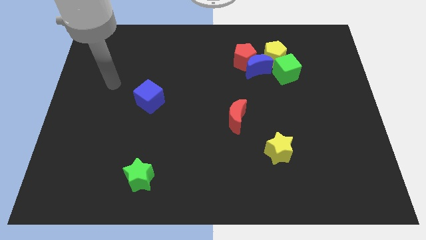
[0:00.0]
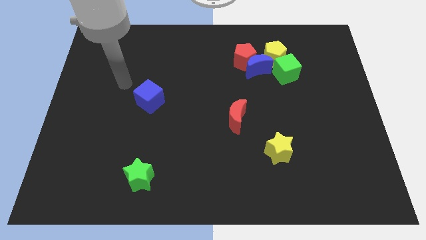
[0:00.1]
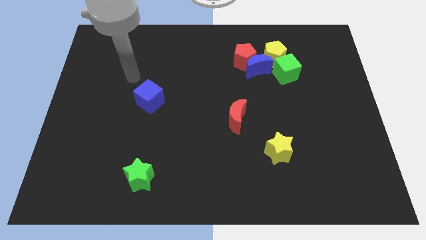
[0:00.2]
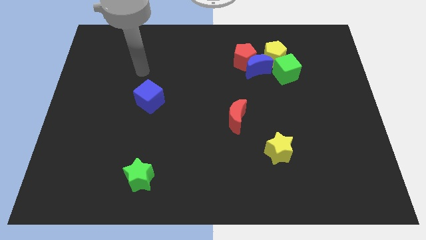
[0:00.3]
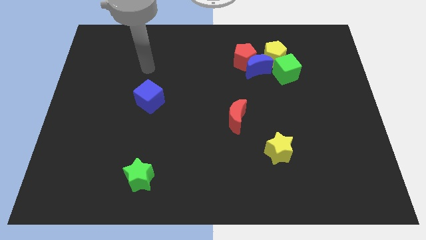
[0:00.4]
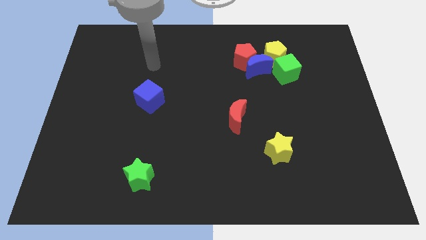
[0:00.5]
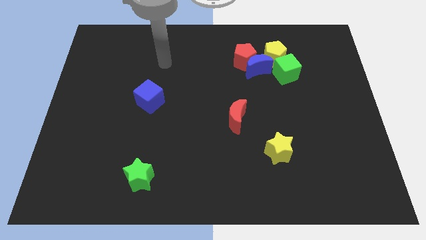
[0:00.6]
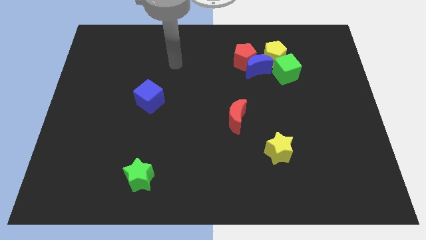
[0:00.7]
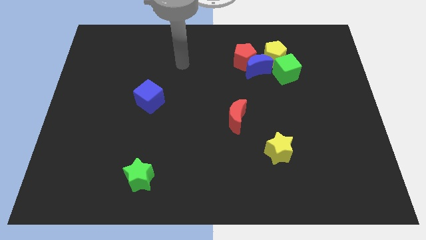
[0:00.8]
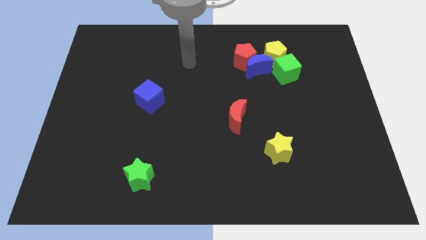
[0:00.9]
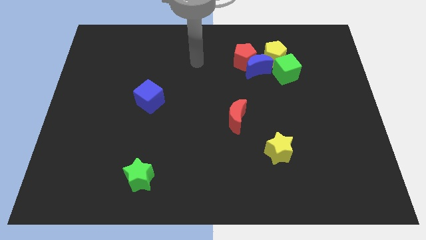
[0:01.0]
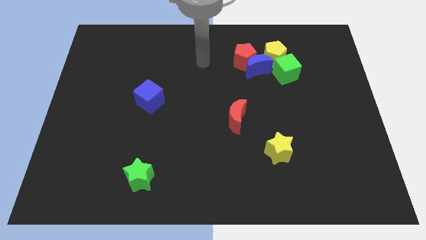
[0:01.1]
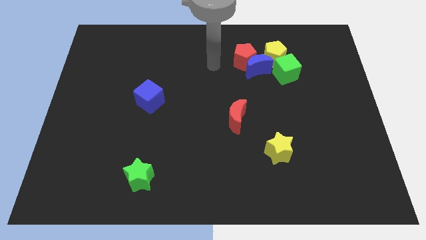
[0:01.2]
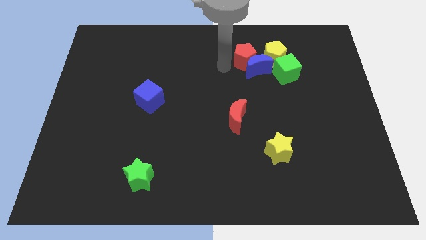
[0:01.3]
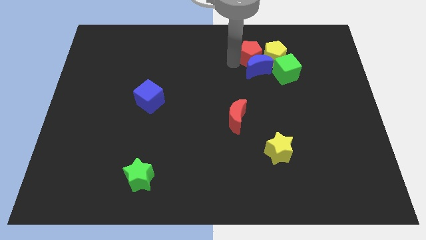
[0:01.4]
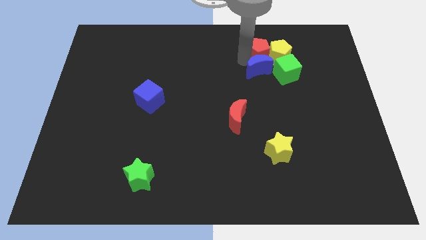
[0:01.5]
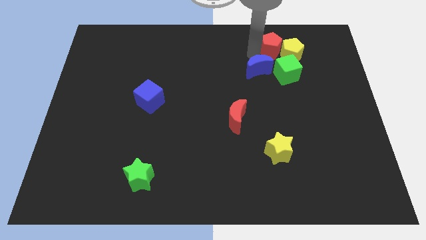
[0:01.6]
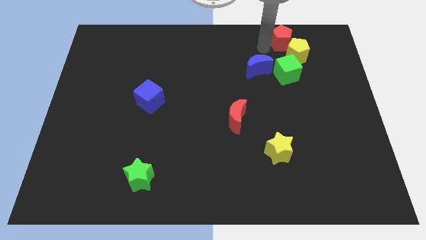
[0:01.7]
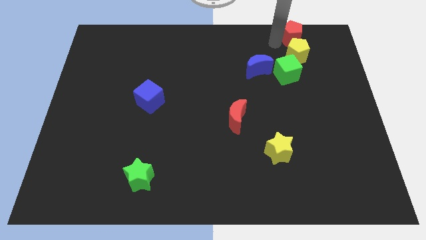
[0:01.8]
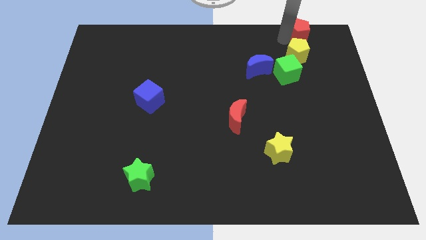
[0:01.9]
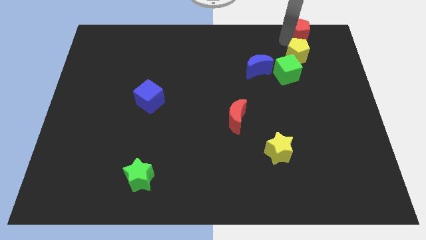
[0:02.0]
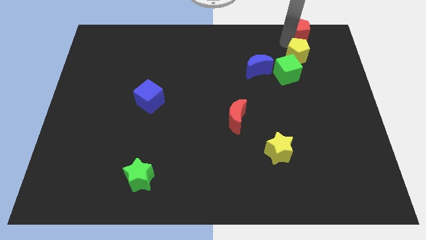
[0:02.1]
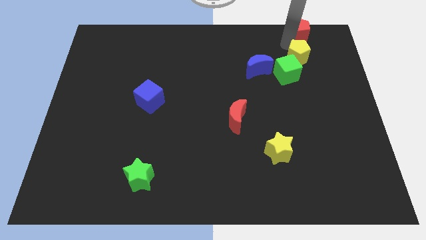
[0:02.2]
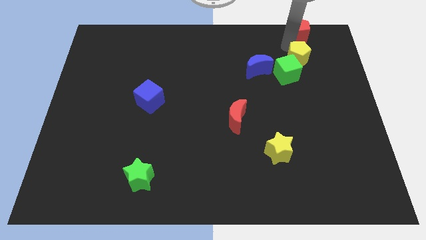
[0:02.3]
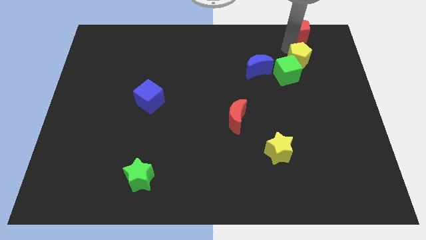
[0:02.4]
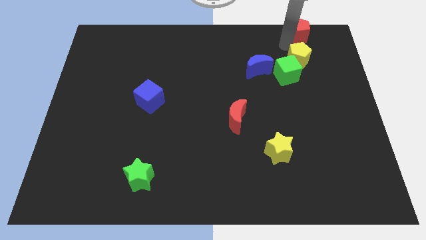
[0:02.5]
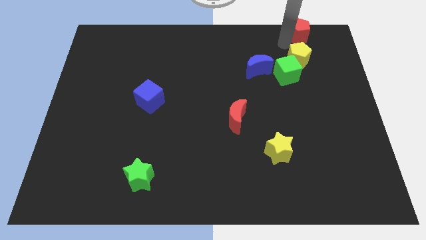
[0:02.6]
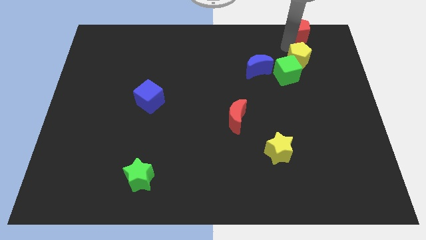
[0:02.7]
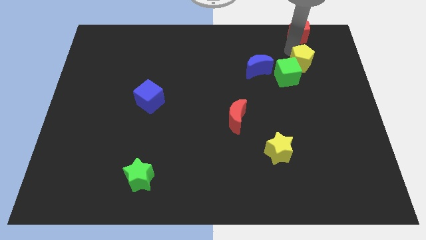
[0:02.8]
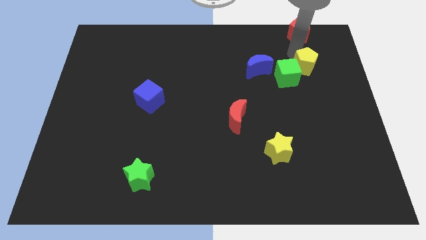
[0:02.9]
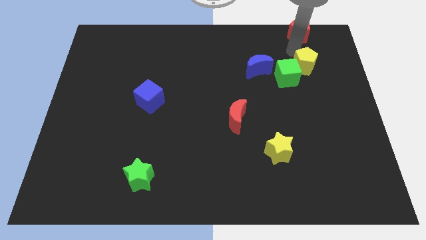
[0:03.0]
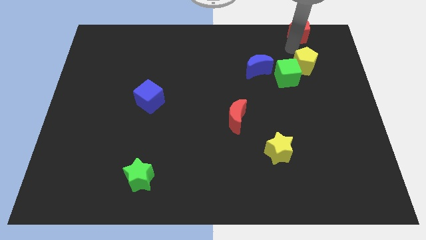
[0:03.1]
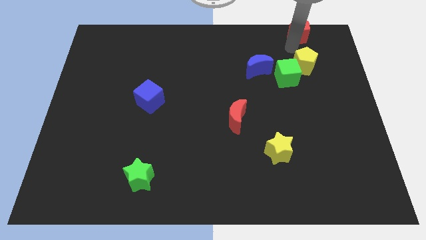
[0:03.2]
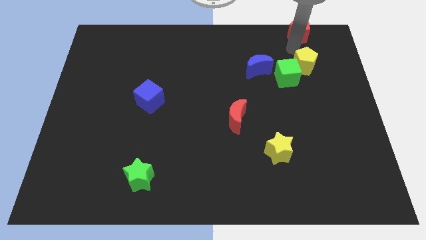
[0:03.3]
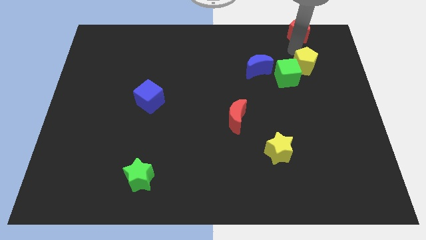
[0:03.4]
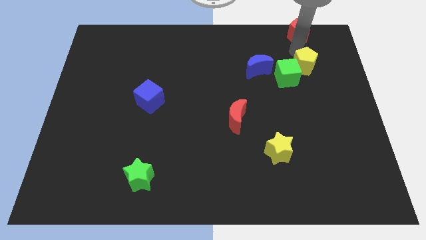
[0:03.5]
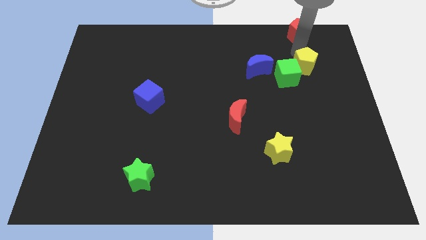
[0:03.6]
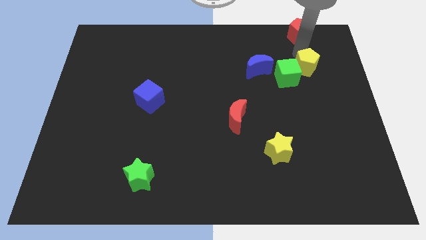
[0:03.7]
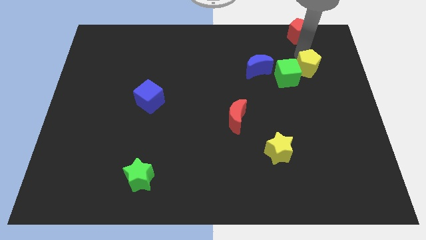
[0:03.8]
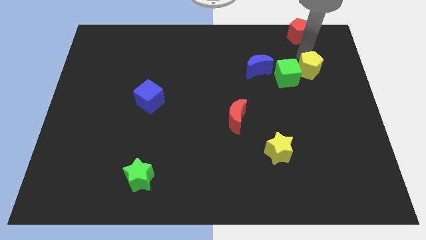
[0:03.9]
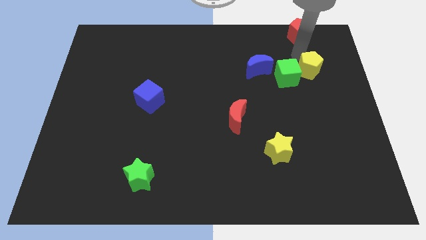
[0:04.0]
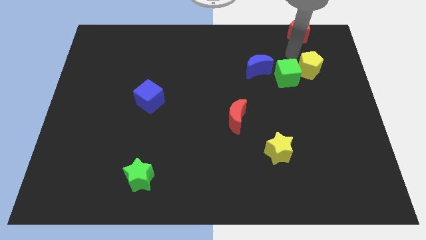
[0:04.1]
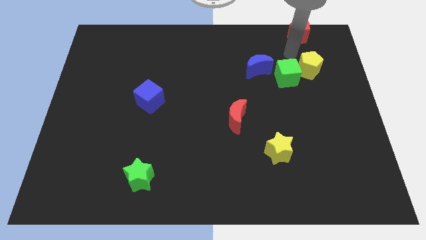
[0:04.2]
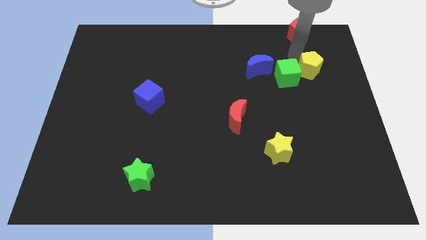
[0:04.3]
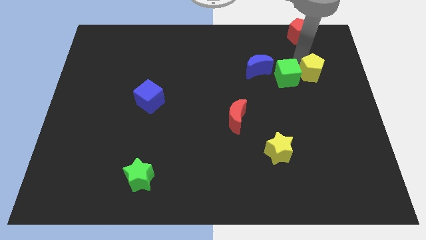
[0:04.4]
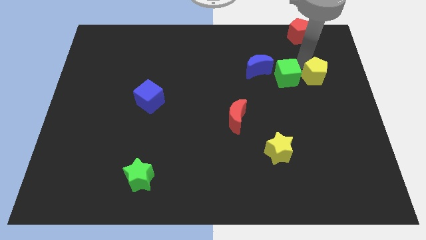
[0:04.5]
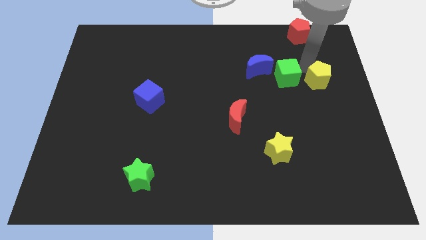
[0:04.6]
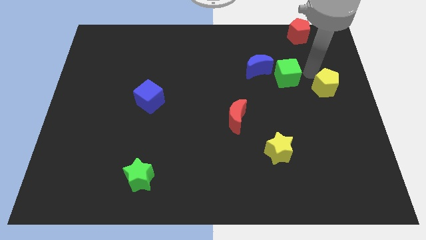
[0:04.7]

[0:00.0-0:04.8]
push the yellow pentagon to the center right

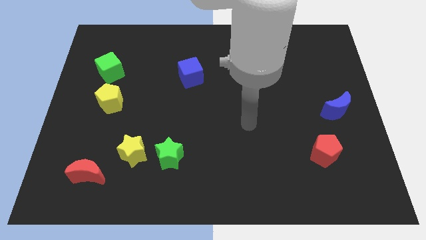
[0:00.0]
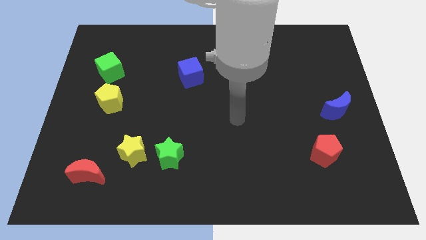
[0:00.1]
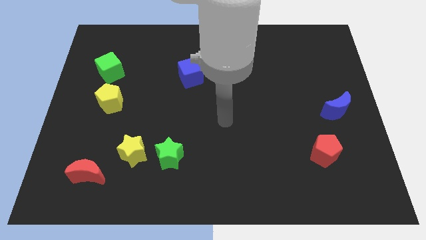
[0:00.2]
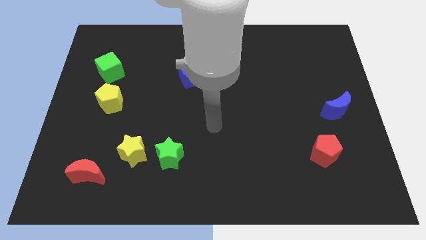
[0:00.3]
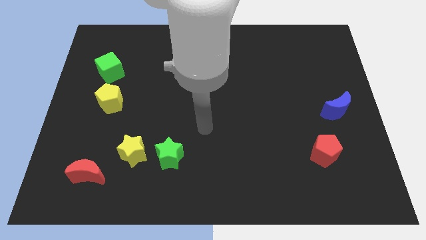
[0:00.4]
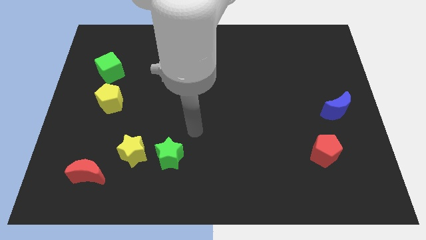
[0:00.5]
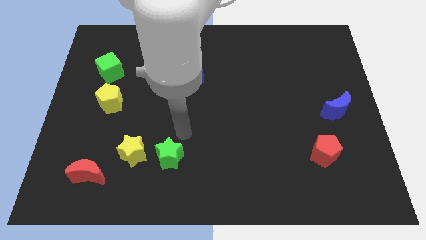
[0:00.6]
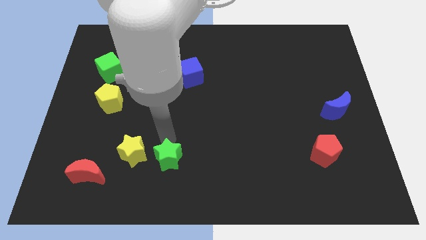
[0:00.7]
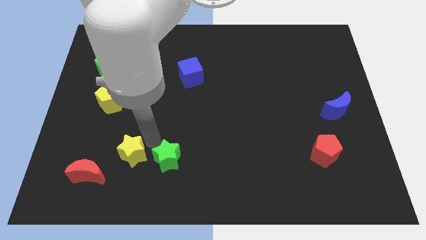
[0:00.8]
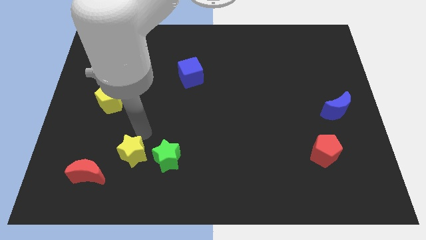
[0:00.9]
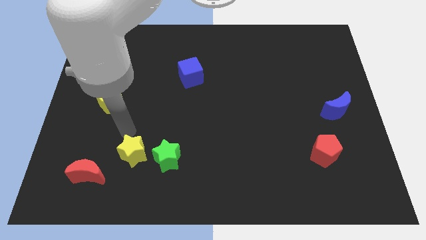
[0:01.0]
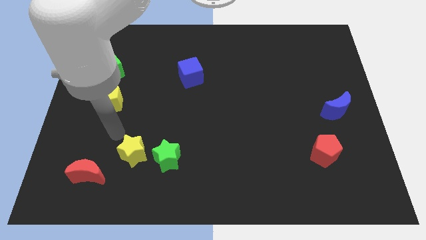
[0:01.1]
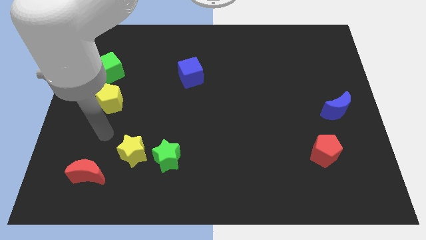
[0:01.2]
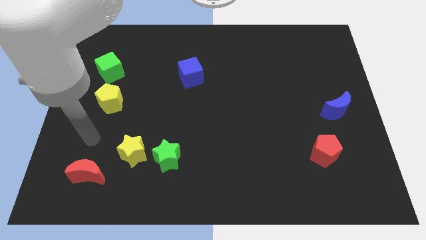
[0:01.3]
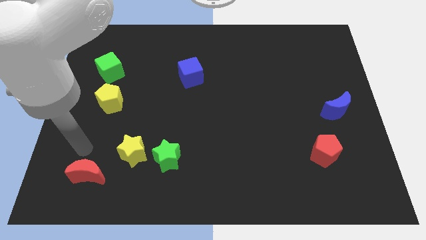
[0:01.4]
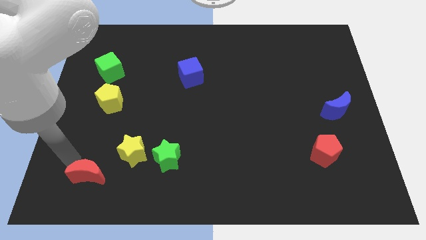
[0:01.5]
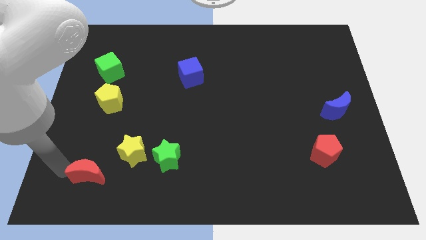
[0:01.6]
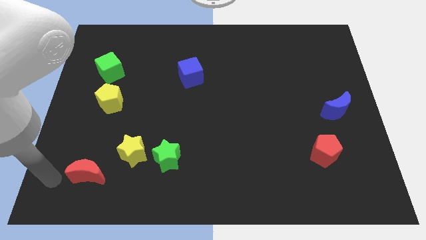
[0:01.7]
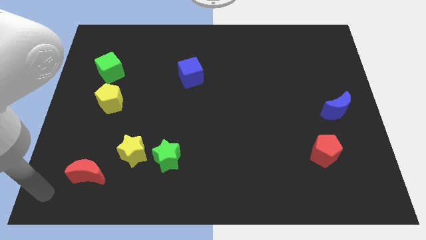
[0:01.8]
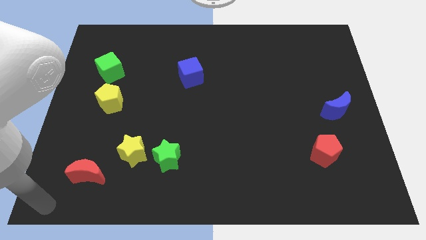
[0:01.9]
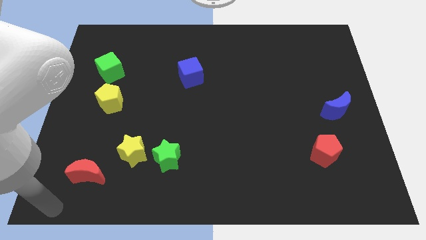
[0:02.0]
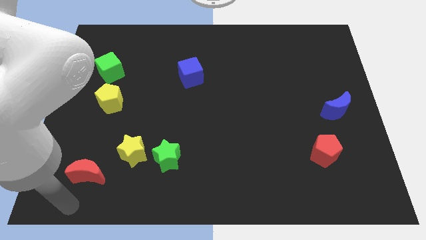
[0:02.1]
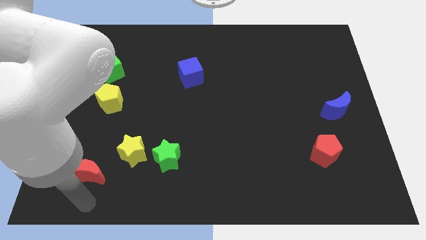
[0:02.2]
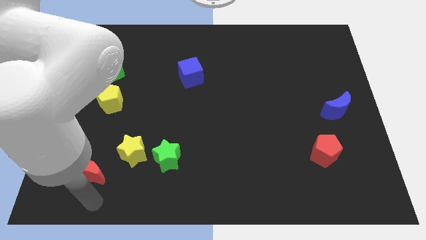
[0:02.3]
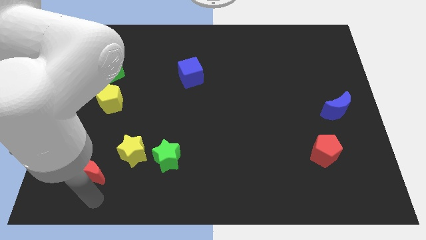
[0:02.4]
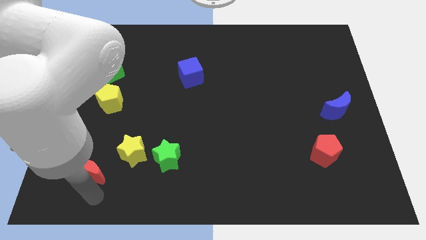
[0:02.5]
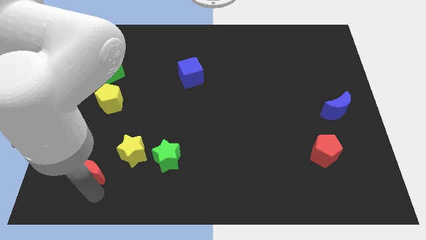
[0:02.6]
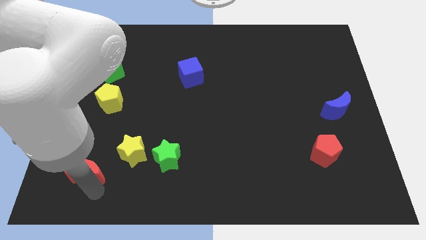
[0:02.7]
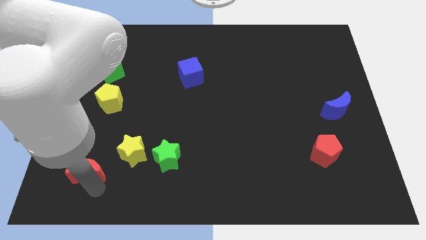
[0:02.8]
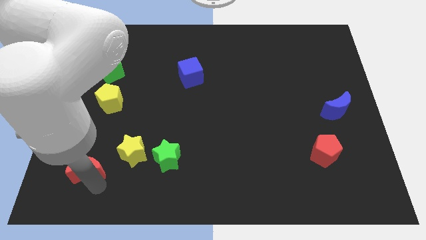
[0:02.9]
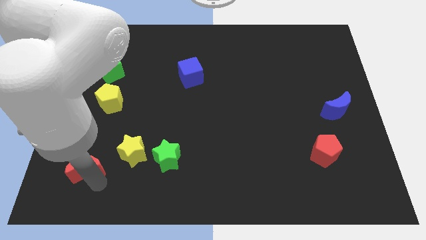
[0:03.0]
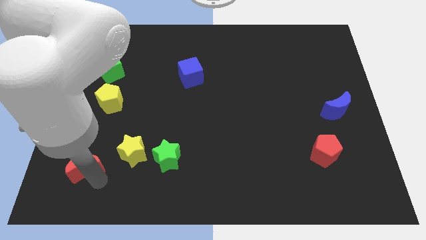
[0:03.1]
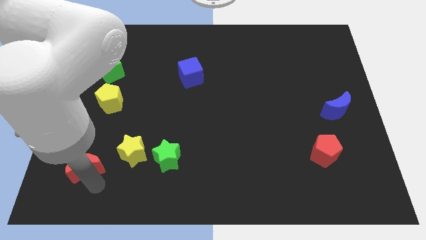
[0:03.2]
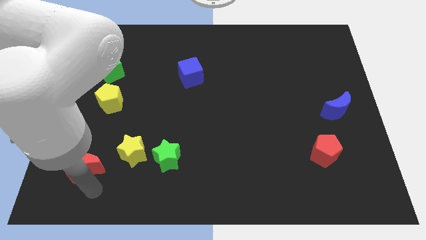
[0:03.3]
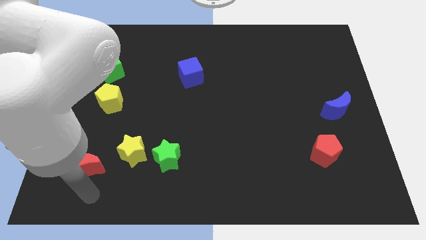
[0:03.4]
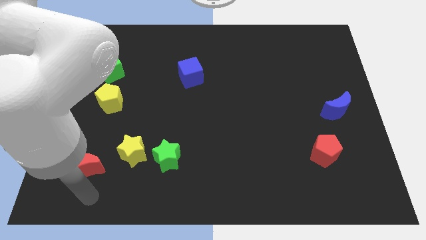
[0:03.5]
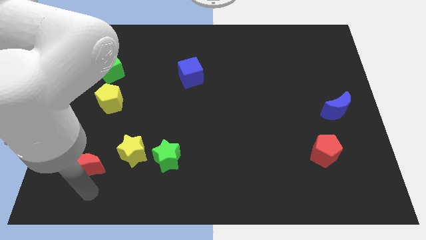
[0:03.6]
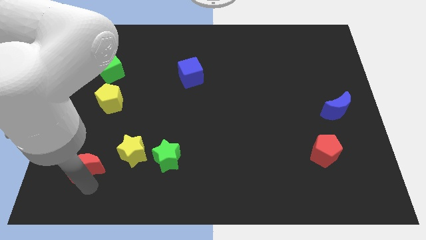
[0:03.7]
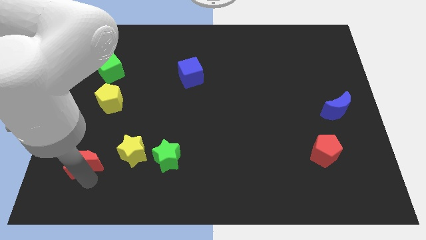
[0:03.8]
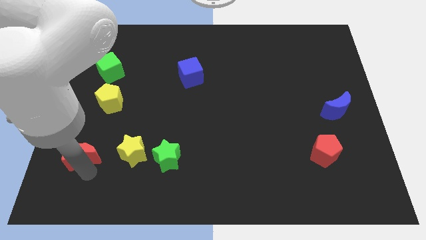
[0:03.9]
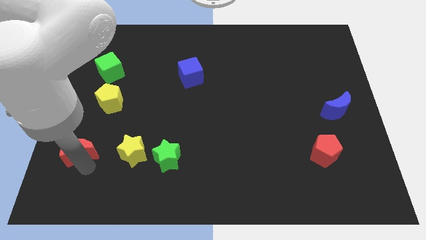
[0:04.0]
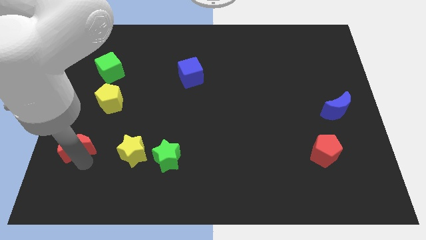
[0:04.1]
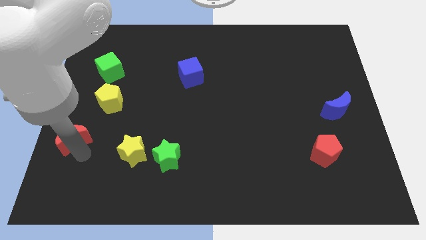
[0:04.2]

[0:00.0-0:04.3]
put the red moon to the left side of the board
